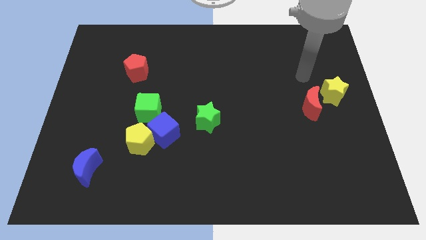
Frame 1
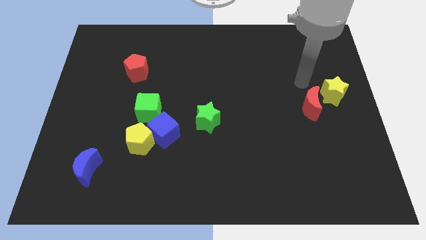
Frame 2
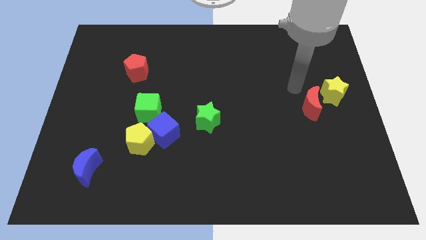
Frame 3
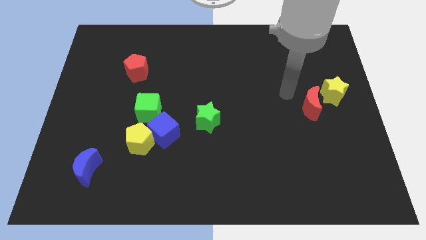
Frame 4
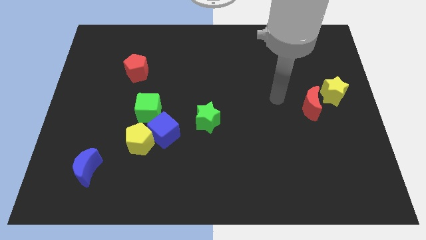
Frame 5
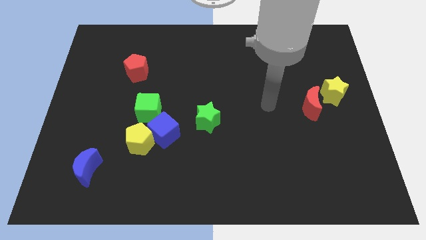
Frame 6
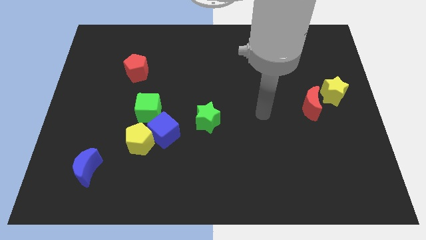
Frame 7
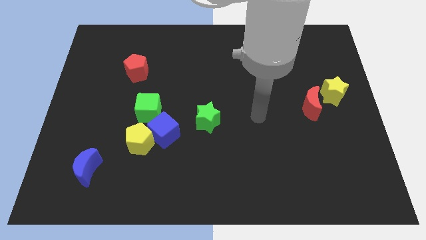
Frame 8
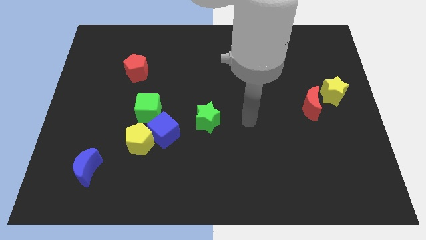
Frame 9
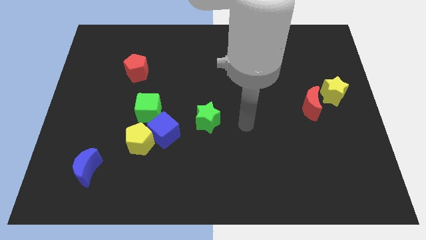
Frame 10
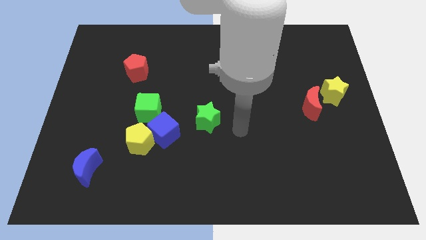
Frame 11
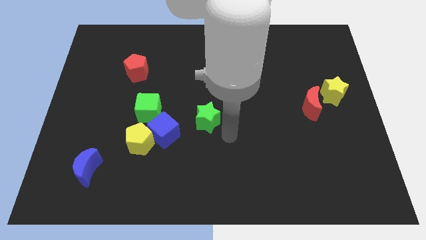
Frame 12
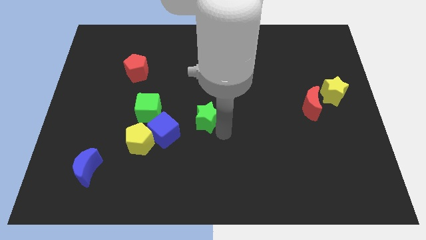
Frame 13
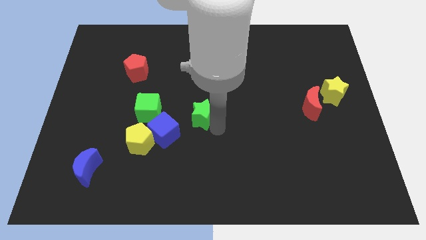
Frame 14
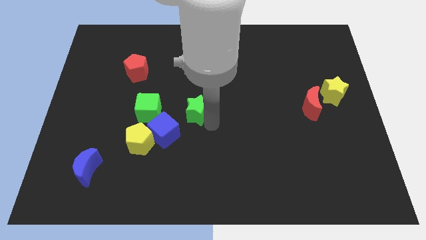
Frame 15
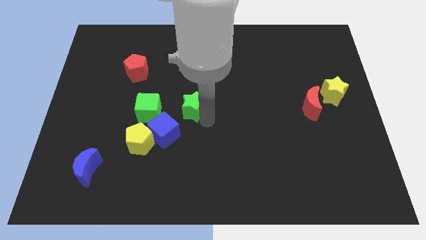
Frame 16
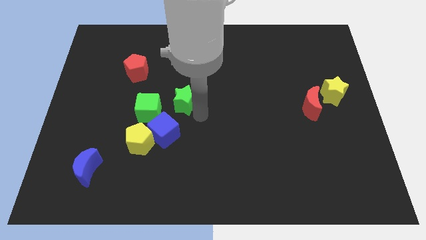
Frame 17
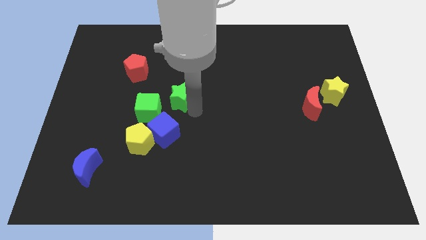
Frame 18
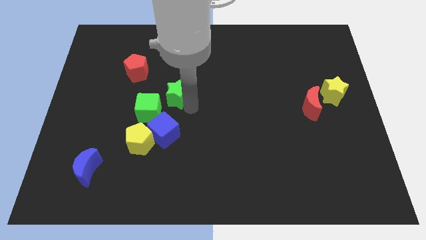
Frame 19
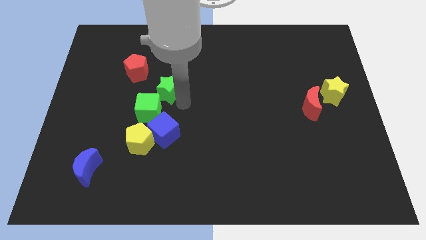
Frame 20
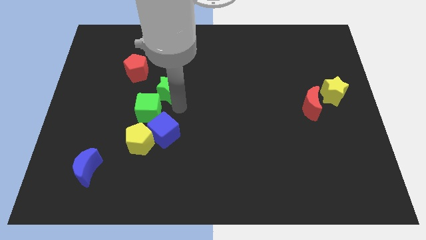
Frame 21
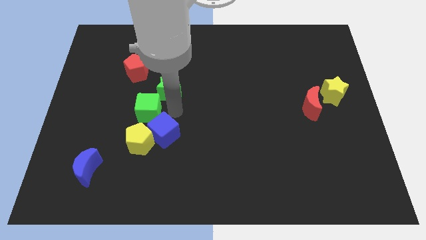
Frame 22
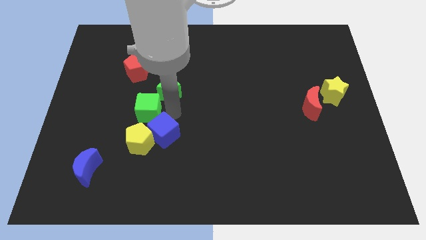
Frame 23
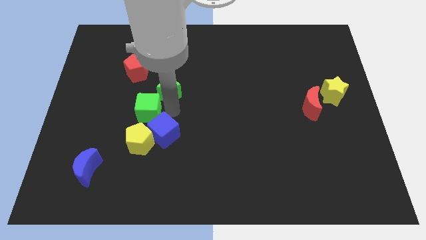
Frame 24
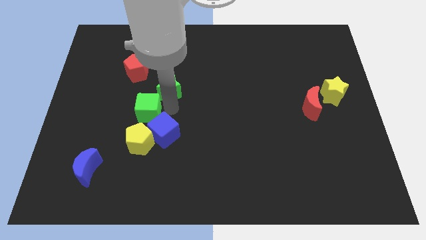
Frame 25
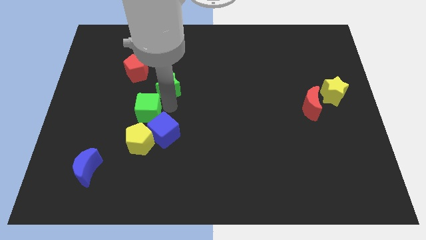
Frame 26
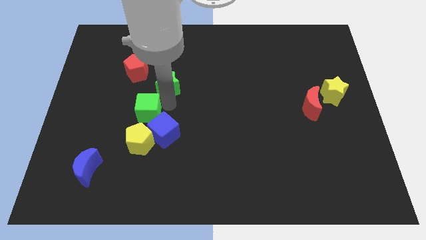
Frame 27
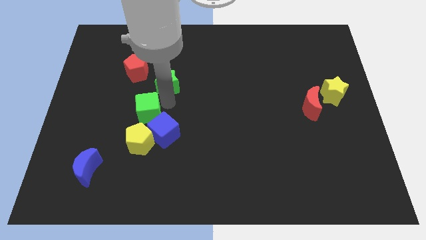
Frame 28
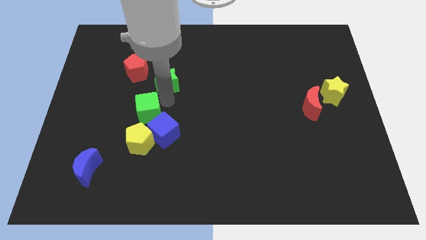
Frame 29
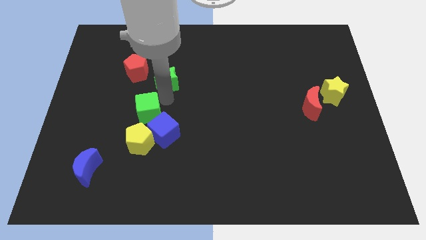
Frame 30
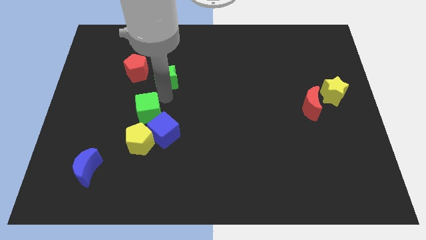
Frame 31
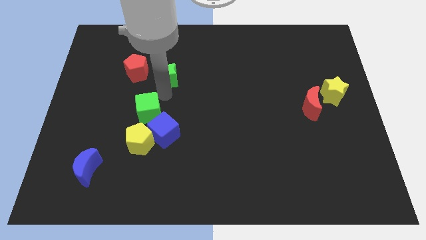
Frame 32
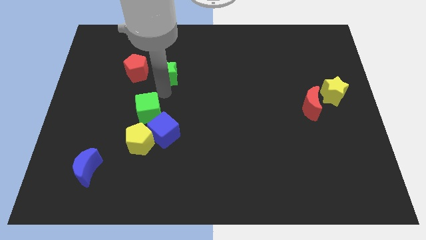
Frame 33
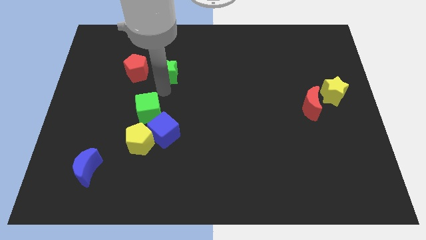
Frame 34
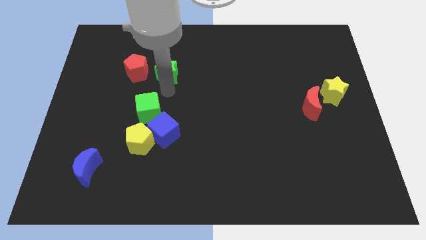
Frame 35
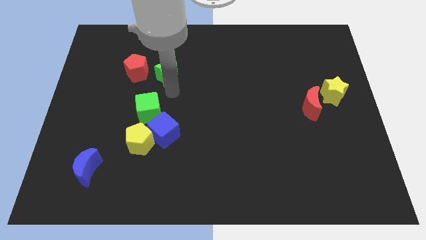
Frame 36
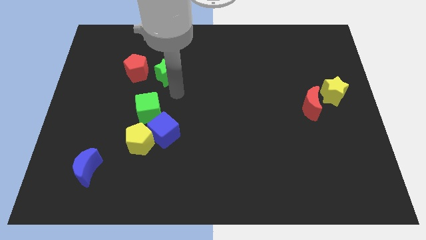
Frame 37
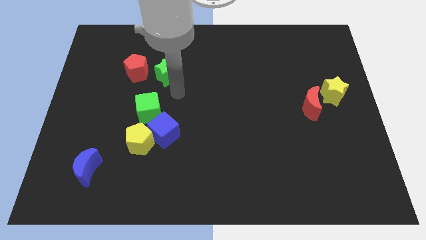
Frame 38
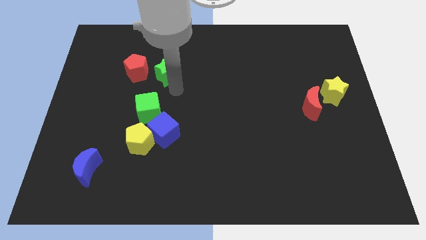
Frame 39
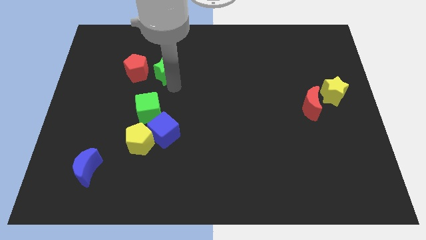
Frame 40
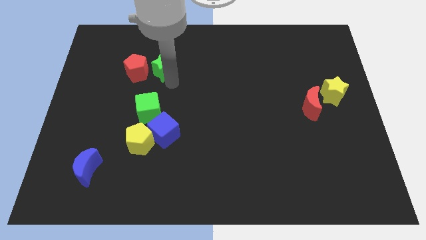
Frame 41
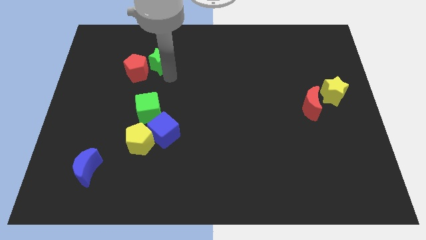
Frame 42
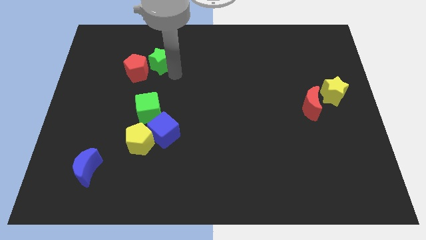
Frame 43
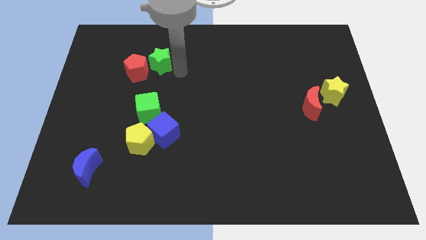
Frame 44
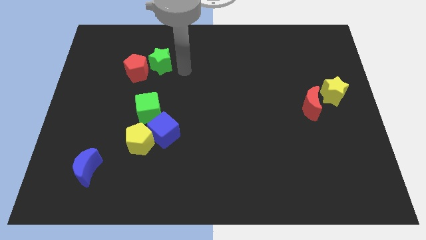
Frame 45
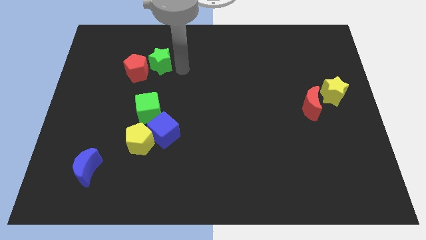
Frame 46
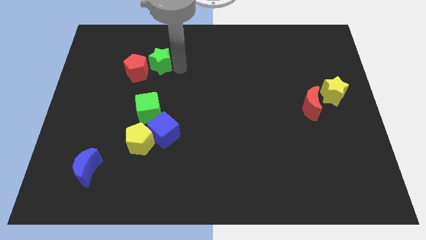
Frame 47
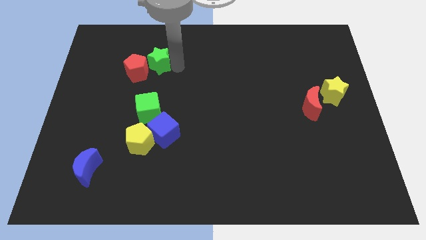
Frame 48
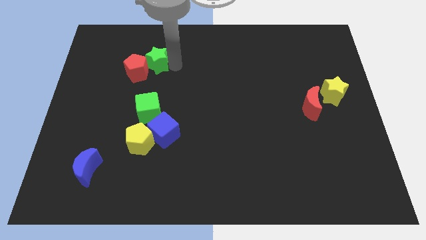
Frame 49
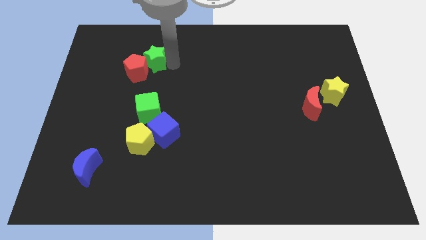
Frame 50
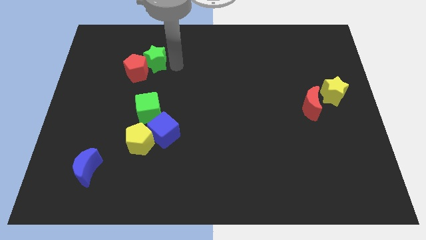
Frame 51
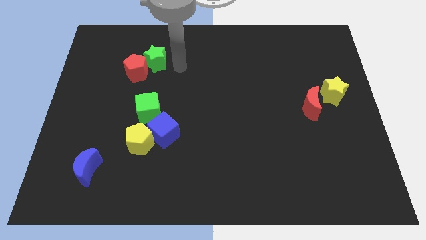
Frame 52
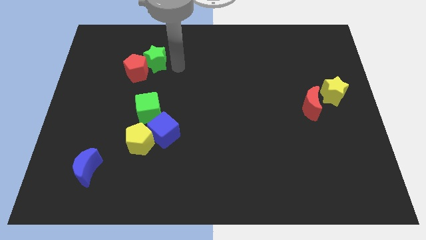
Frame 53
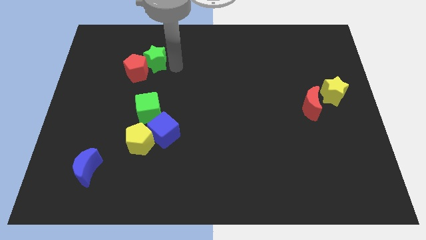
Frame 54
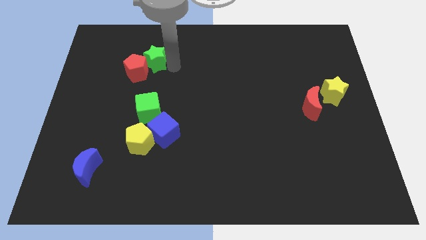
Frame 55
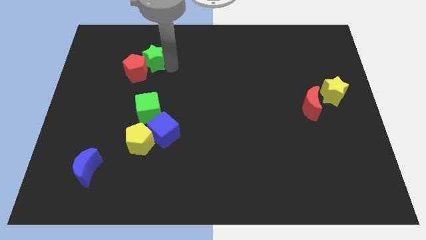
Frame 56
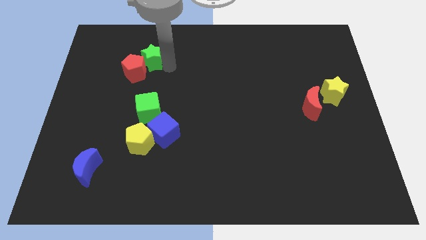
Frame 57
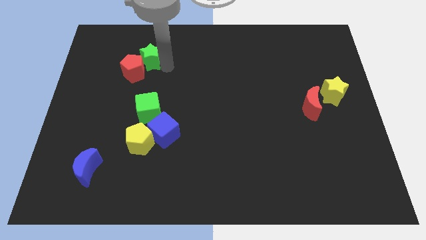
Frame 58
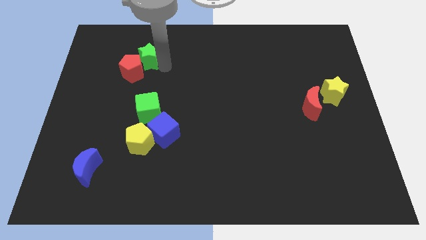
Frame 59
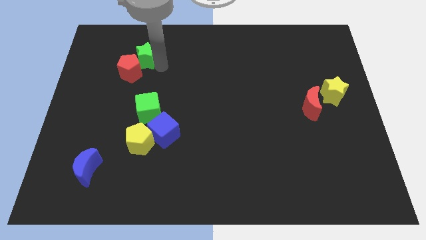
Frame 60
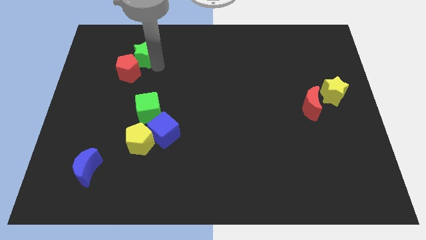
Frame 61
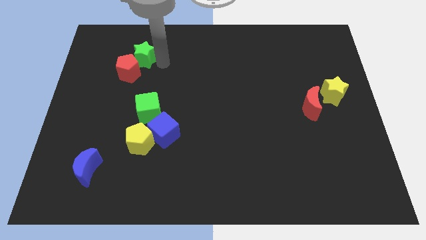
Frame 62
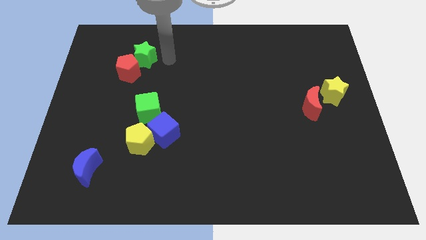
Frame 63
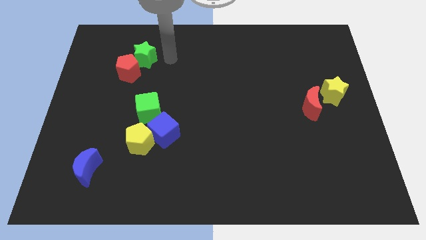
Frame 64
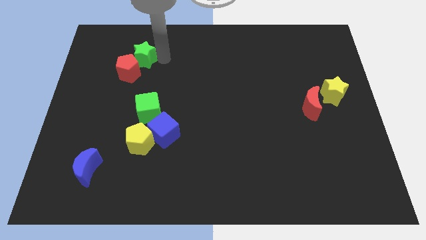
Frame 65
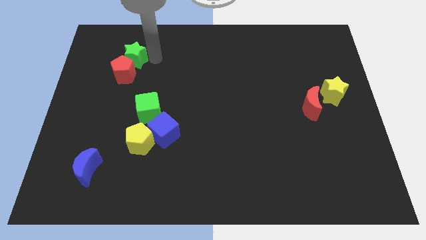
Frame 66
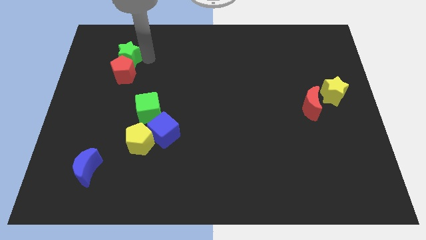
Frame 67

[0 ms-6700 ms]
move the green star to the top left of the red pentagon
